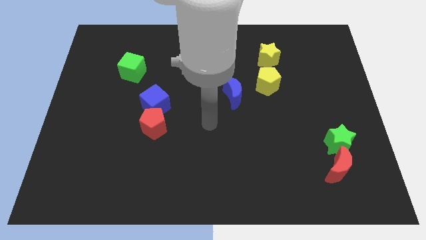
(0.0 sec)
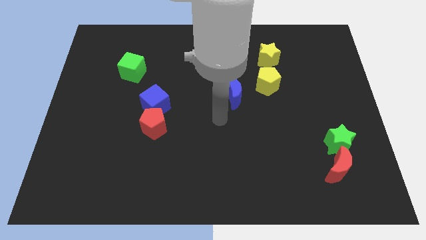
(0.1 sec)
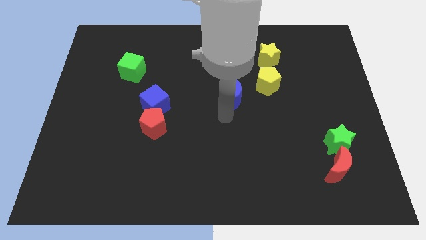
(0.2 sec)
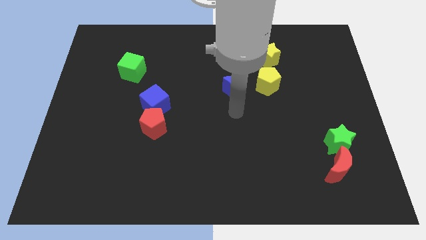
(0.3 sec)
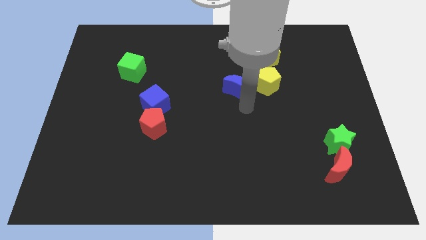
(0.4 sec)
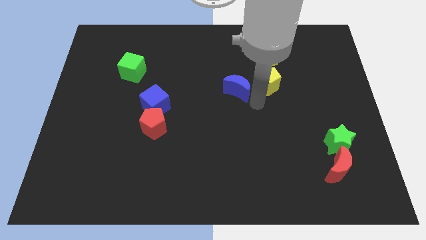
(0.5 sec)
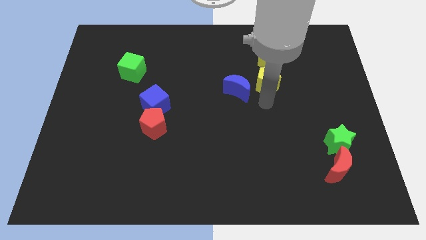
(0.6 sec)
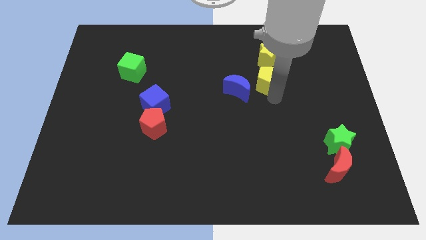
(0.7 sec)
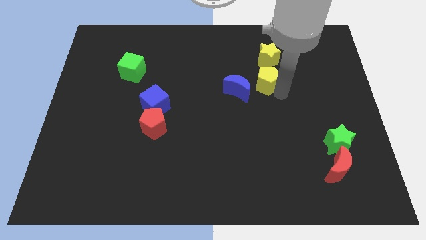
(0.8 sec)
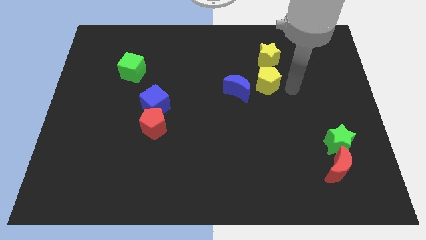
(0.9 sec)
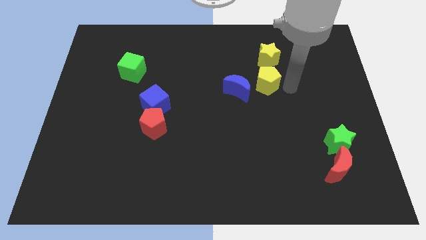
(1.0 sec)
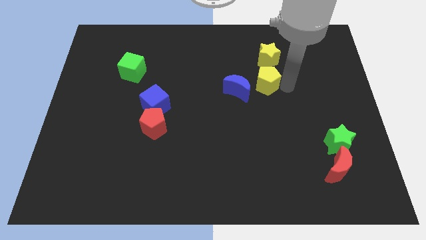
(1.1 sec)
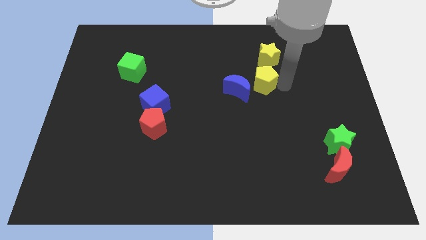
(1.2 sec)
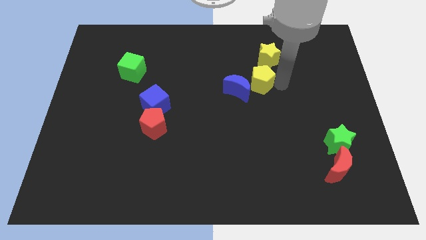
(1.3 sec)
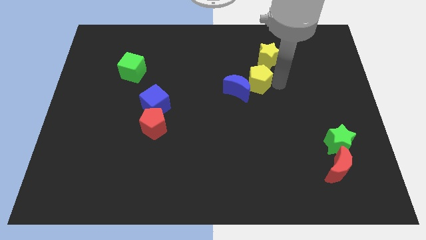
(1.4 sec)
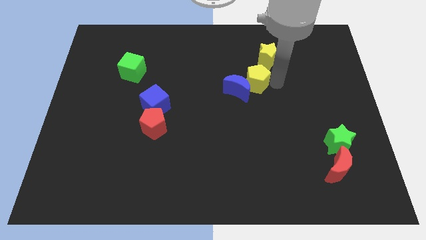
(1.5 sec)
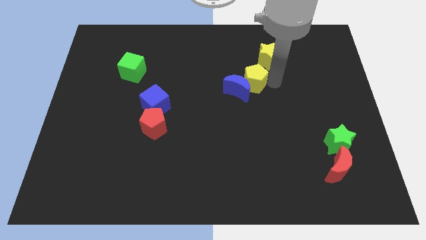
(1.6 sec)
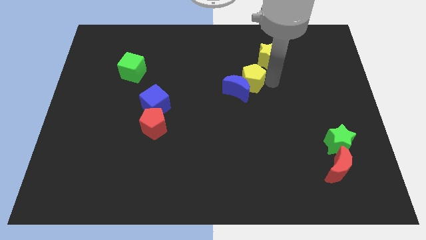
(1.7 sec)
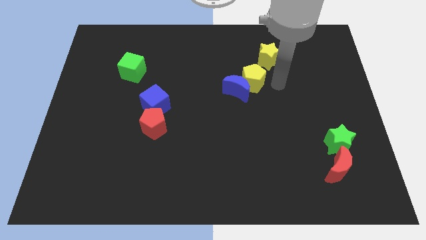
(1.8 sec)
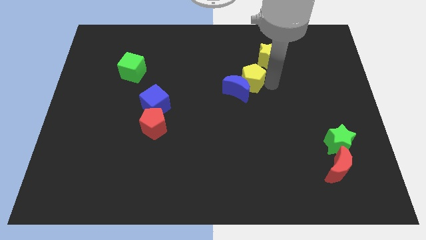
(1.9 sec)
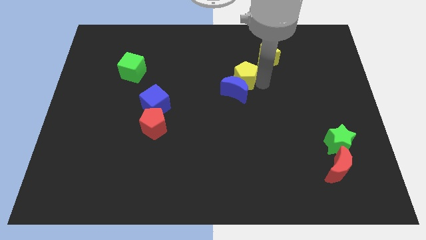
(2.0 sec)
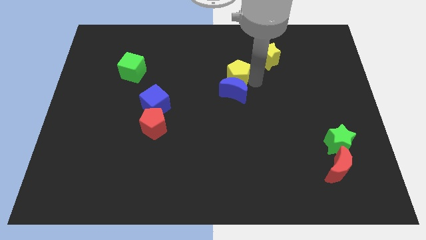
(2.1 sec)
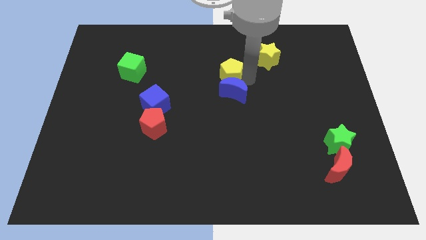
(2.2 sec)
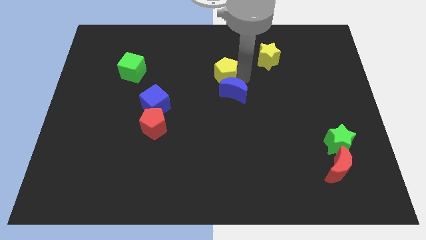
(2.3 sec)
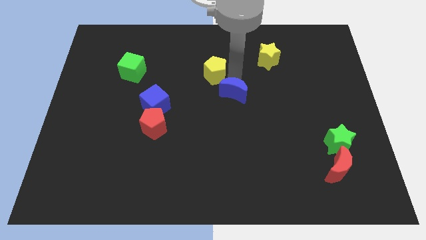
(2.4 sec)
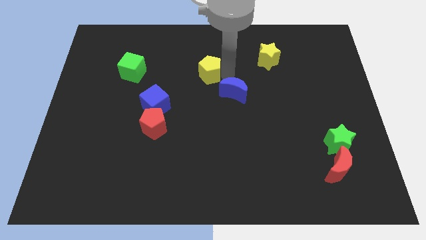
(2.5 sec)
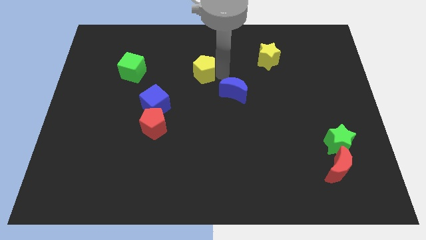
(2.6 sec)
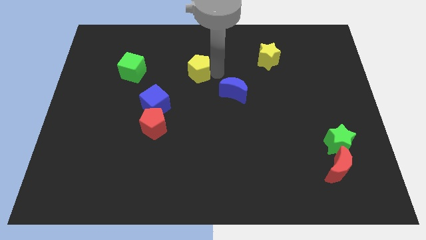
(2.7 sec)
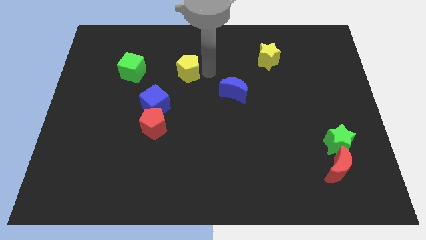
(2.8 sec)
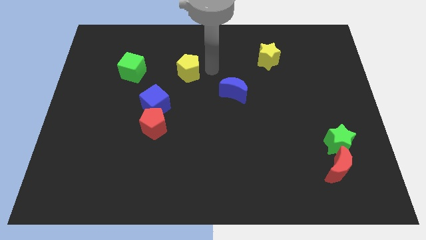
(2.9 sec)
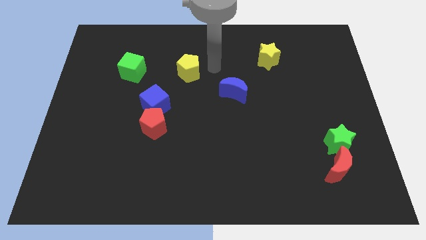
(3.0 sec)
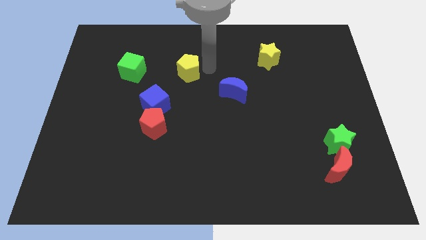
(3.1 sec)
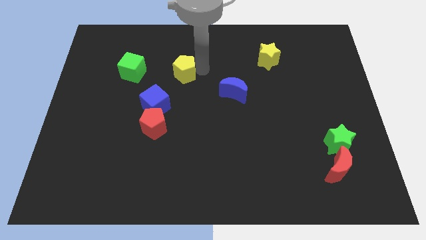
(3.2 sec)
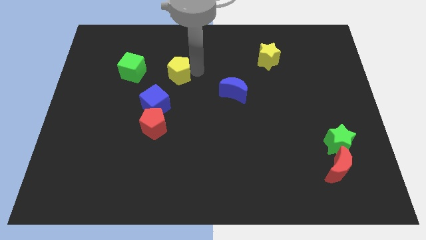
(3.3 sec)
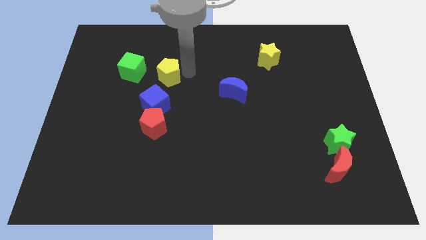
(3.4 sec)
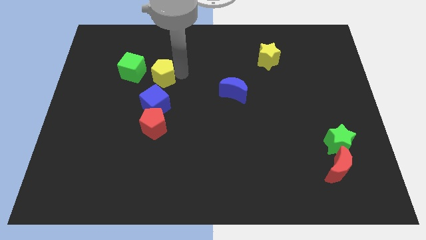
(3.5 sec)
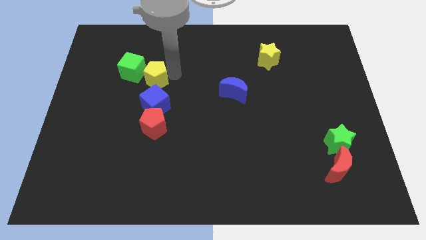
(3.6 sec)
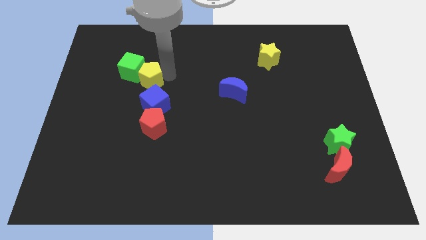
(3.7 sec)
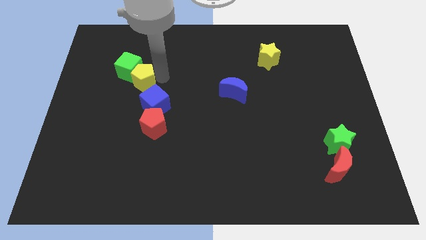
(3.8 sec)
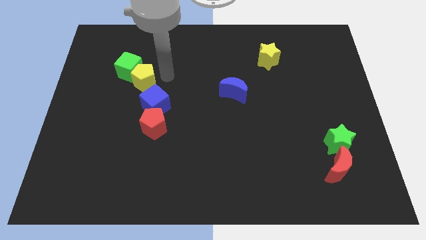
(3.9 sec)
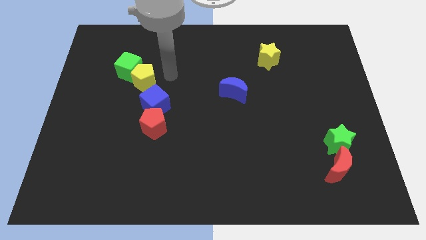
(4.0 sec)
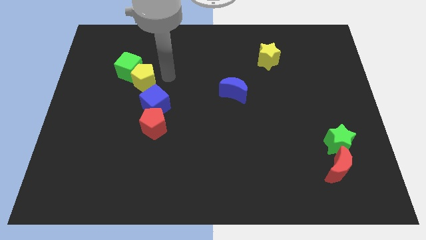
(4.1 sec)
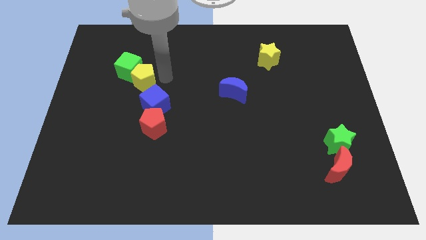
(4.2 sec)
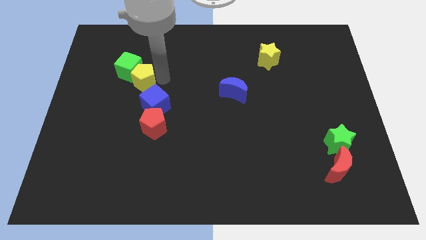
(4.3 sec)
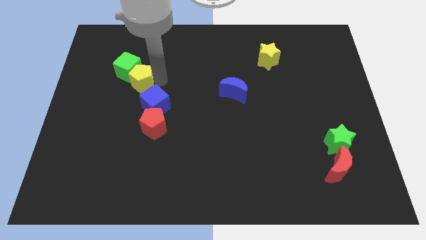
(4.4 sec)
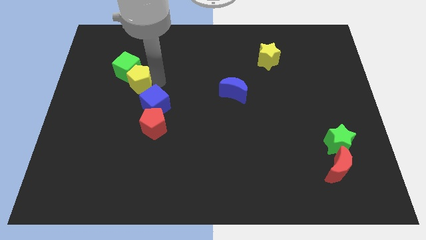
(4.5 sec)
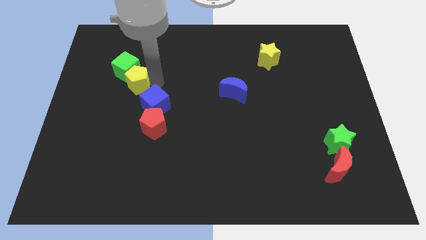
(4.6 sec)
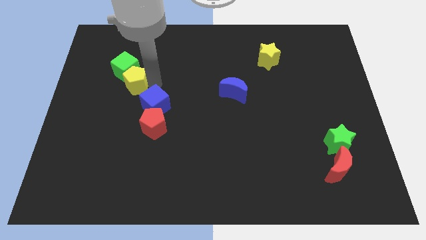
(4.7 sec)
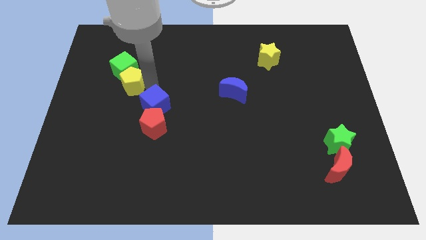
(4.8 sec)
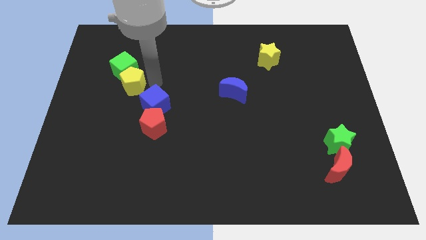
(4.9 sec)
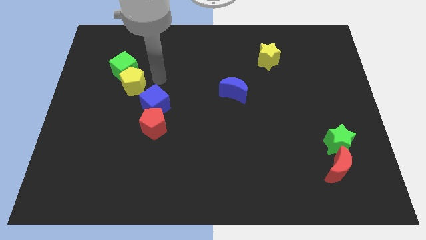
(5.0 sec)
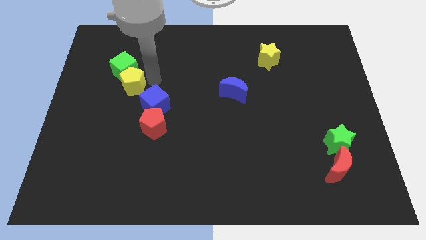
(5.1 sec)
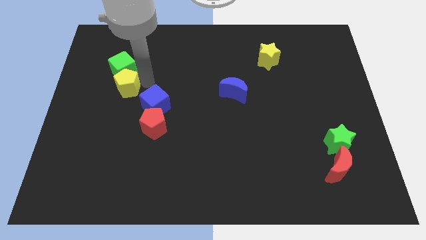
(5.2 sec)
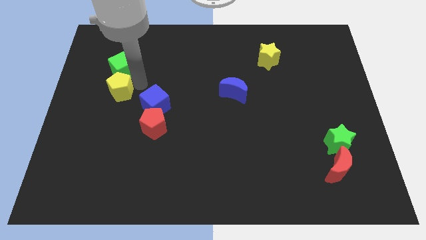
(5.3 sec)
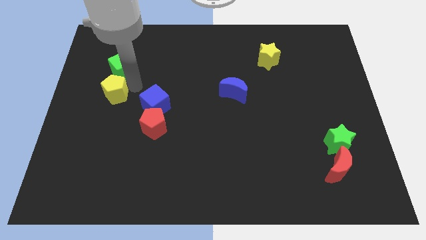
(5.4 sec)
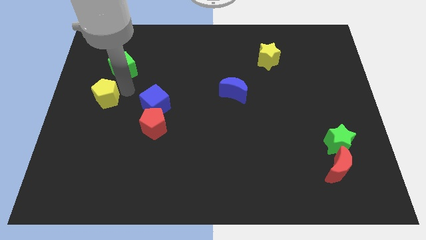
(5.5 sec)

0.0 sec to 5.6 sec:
move the yellow pentagon to the left side
